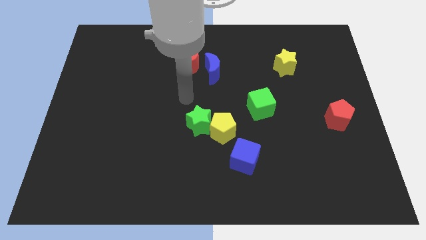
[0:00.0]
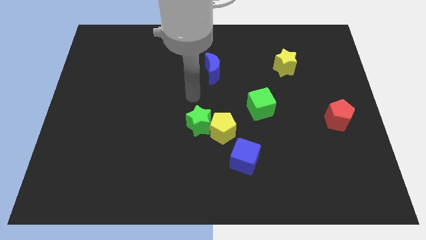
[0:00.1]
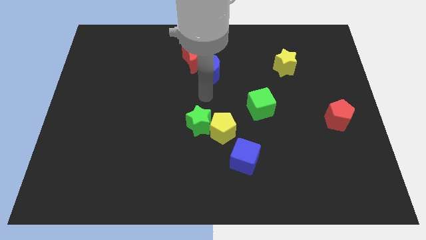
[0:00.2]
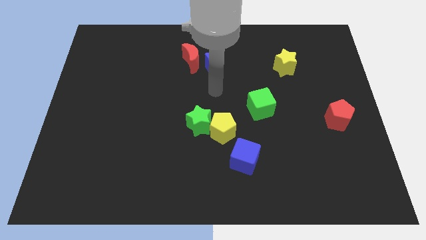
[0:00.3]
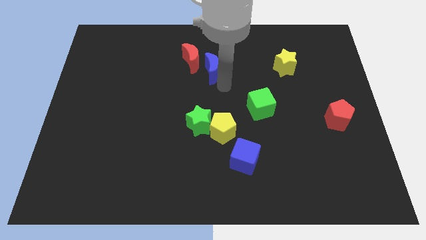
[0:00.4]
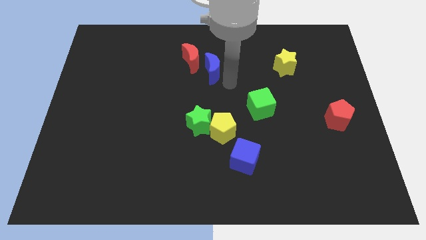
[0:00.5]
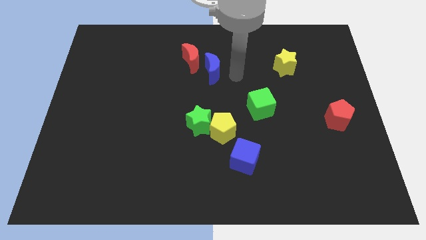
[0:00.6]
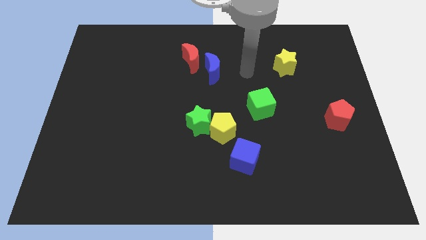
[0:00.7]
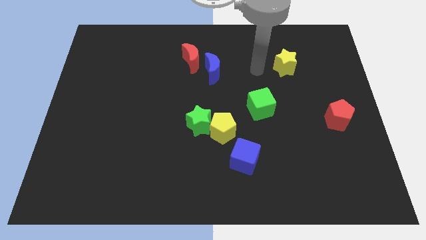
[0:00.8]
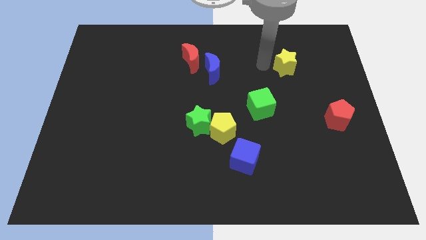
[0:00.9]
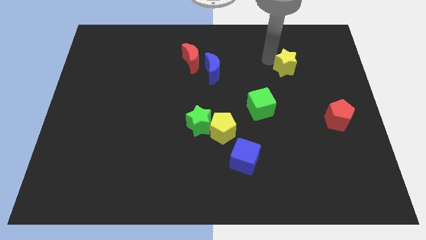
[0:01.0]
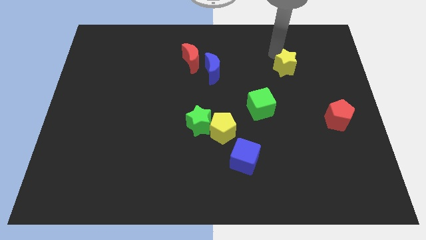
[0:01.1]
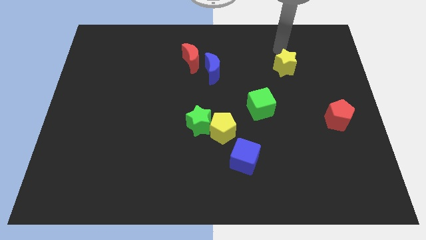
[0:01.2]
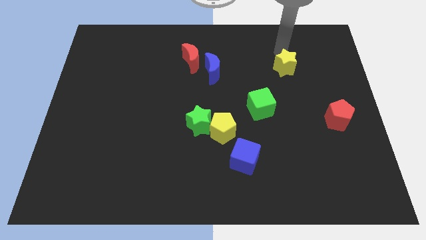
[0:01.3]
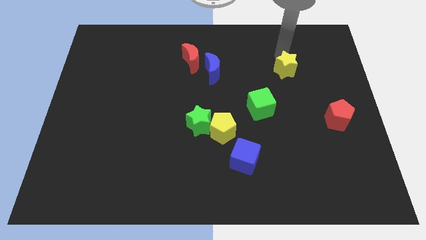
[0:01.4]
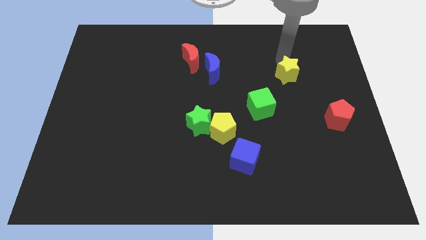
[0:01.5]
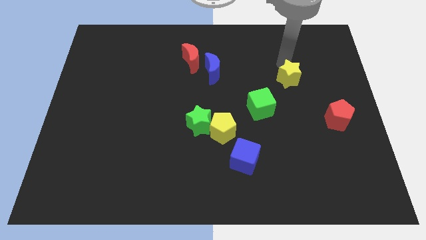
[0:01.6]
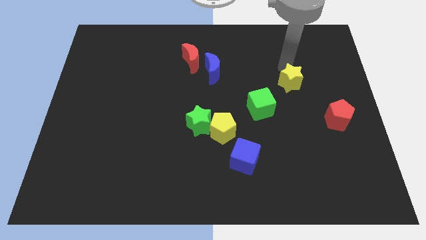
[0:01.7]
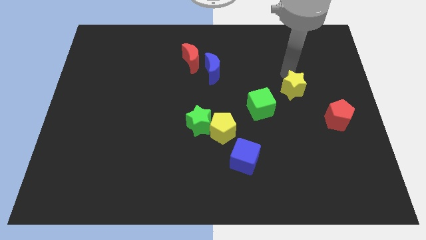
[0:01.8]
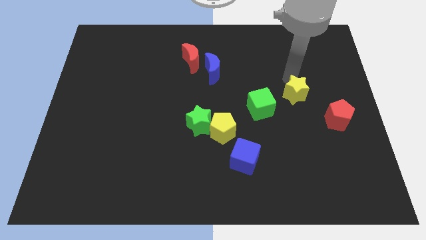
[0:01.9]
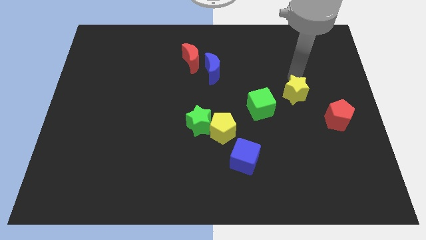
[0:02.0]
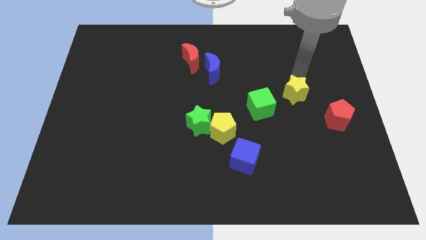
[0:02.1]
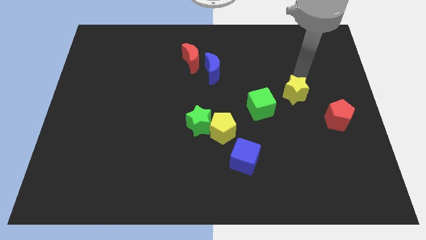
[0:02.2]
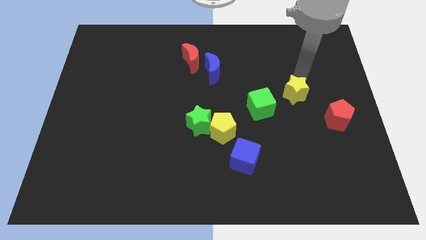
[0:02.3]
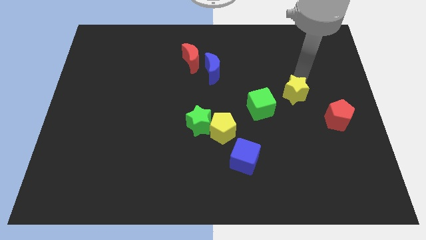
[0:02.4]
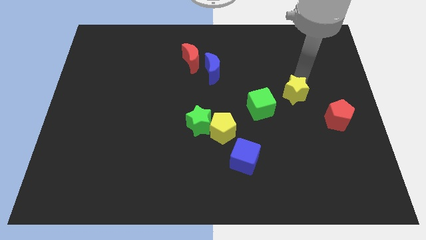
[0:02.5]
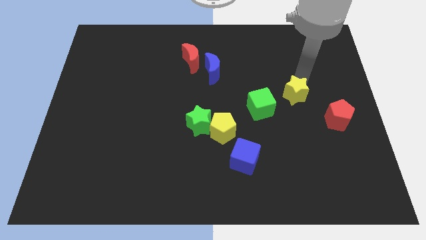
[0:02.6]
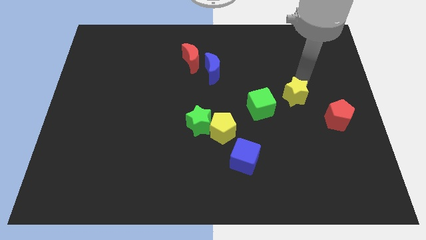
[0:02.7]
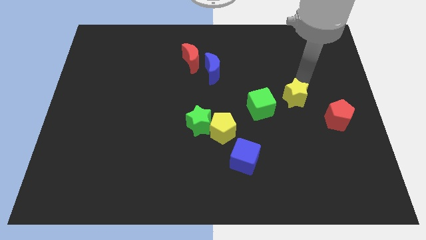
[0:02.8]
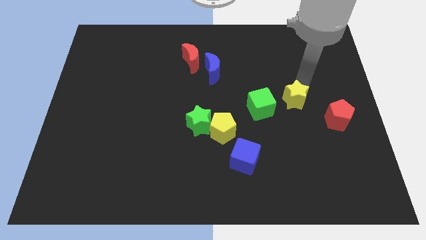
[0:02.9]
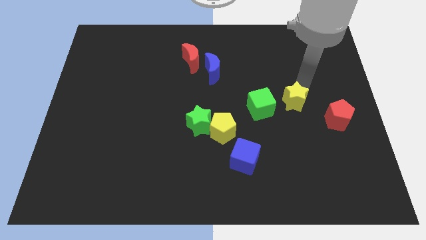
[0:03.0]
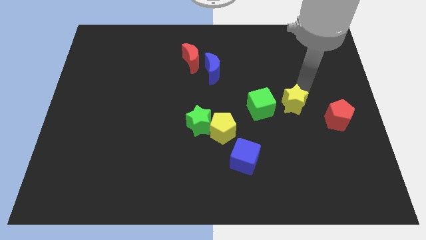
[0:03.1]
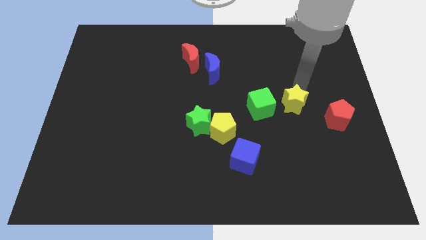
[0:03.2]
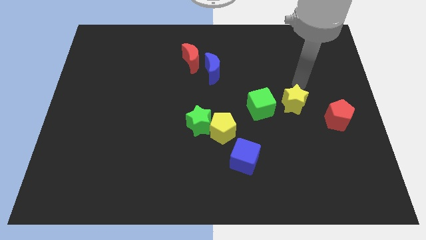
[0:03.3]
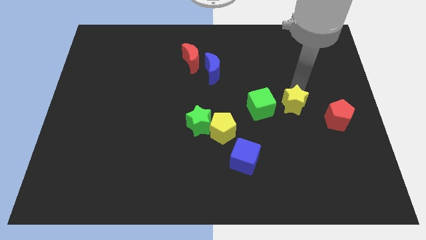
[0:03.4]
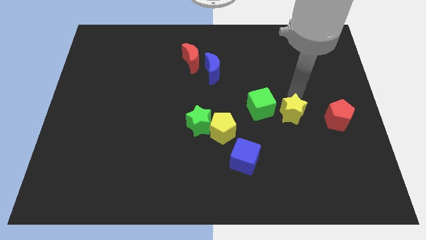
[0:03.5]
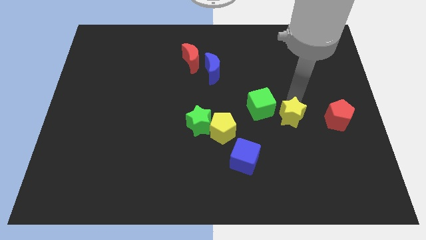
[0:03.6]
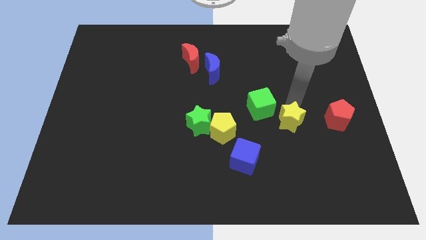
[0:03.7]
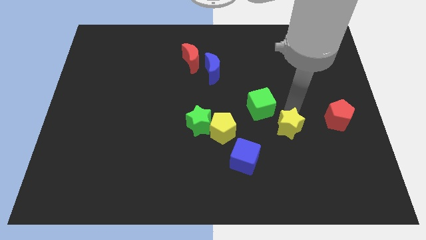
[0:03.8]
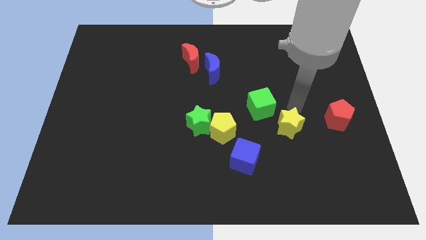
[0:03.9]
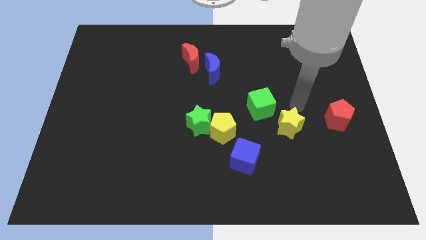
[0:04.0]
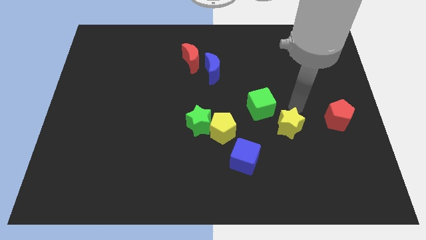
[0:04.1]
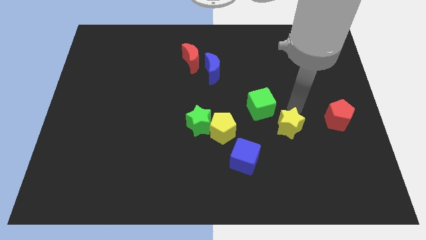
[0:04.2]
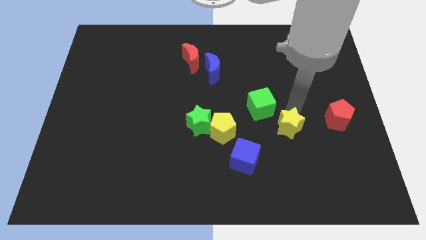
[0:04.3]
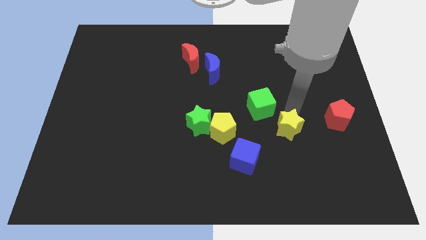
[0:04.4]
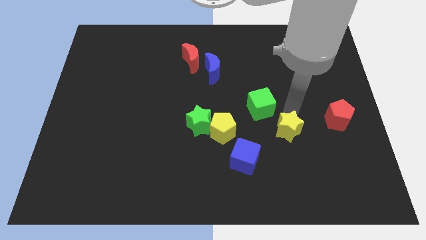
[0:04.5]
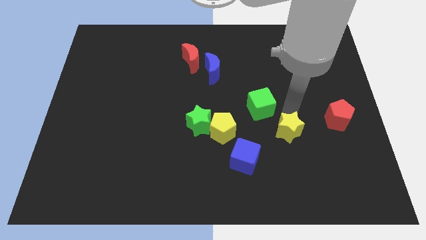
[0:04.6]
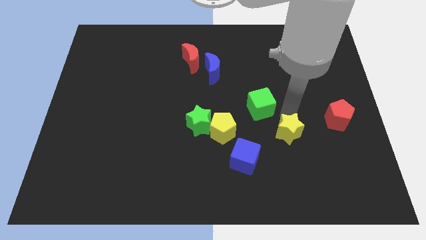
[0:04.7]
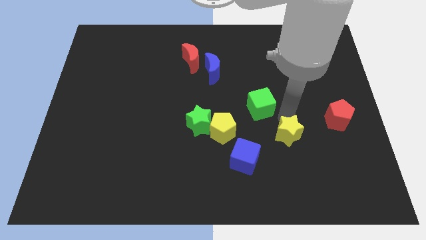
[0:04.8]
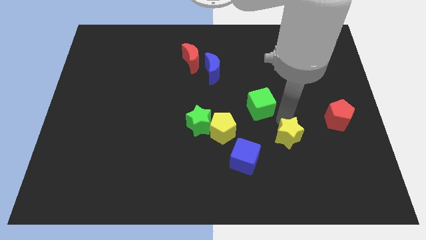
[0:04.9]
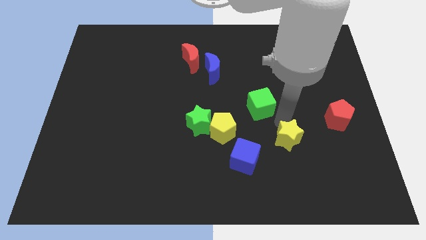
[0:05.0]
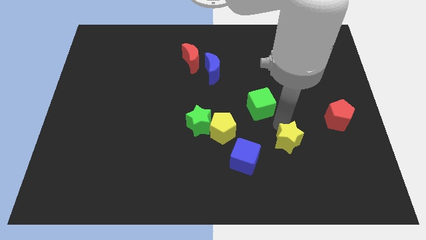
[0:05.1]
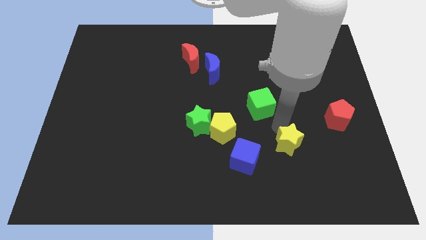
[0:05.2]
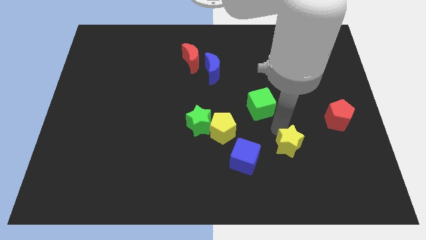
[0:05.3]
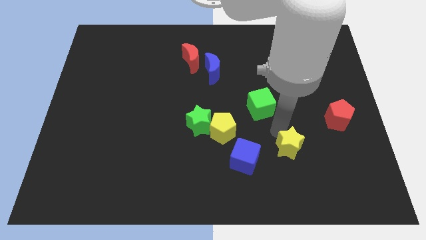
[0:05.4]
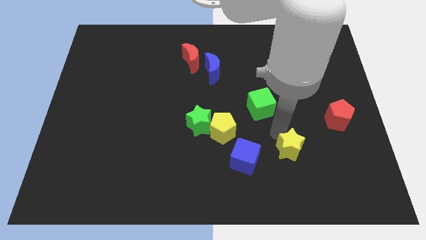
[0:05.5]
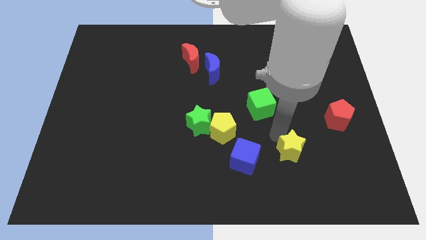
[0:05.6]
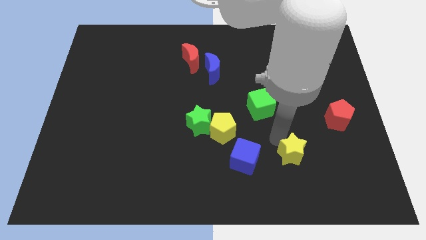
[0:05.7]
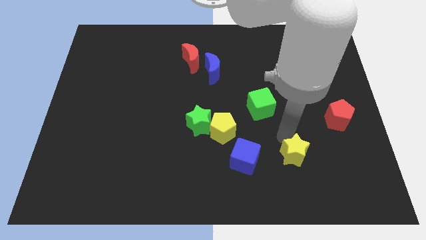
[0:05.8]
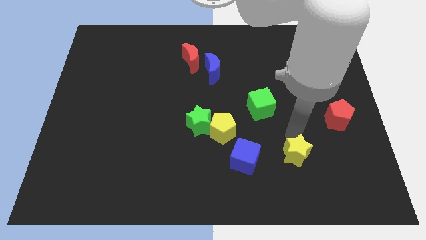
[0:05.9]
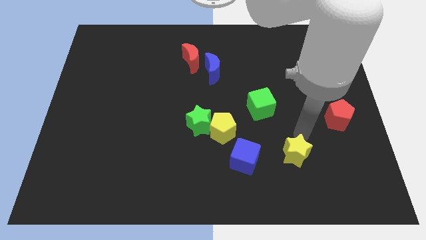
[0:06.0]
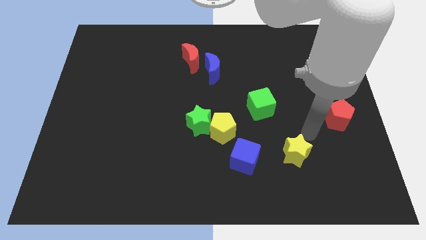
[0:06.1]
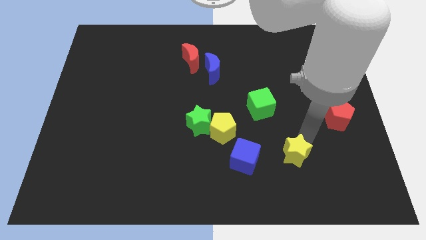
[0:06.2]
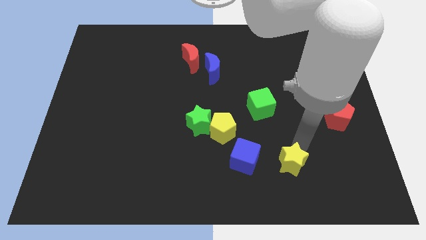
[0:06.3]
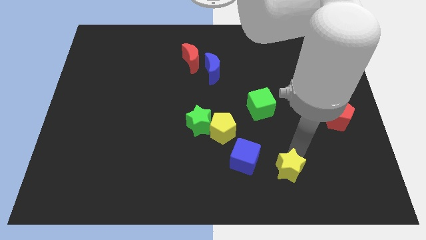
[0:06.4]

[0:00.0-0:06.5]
move the yellow star diagonally down and to the right of the blue cube
